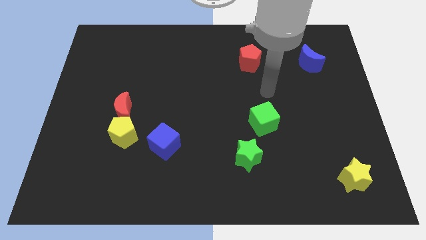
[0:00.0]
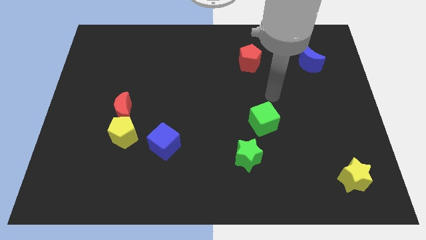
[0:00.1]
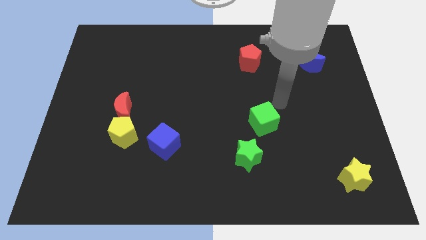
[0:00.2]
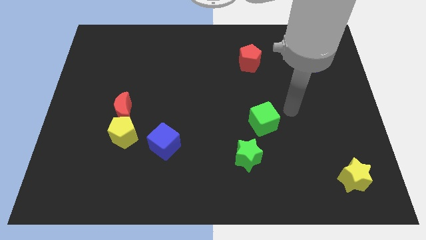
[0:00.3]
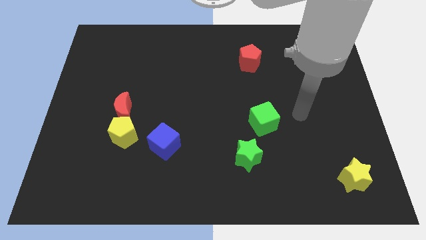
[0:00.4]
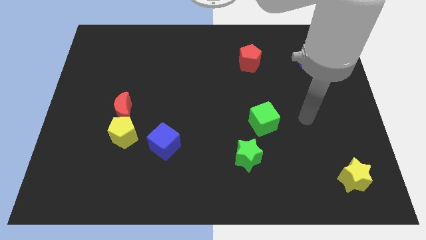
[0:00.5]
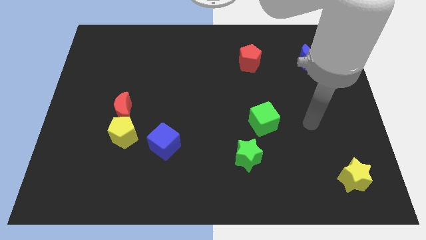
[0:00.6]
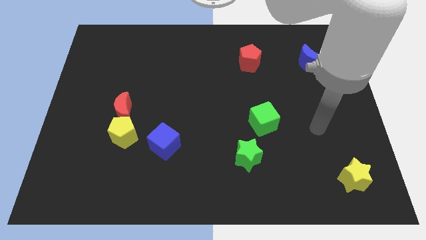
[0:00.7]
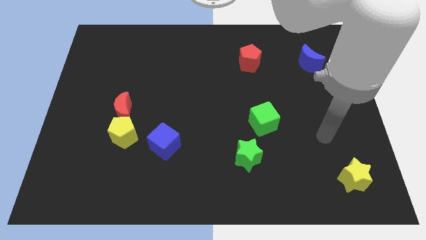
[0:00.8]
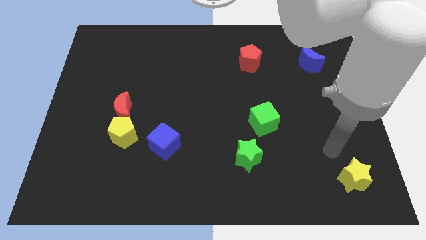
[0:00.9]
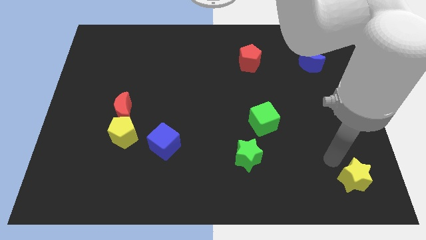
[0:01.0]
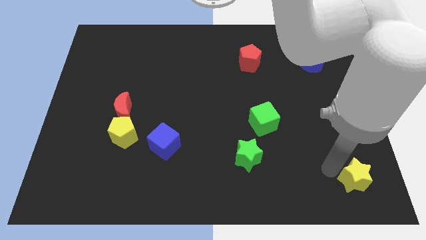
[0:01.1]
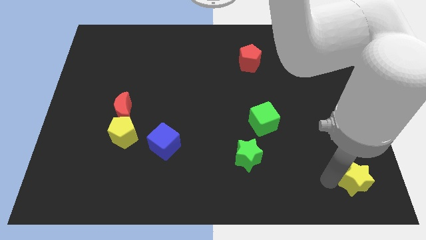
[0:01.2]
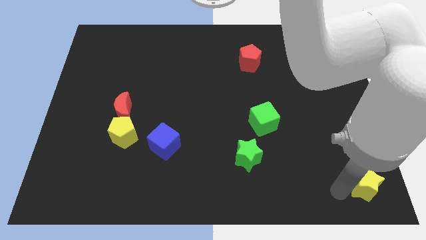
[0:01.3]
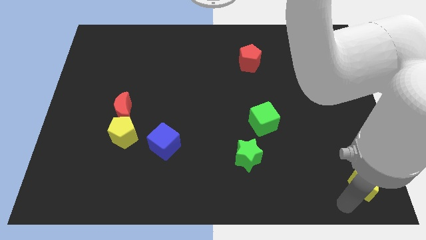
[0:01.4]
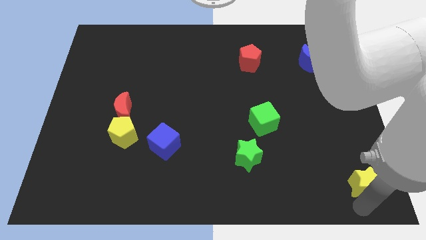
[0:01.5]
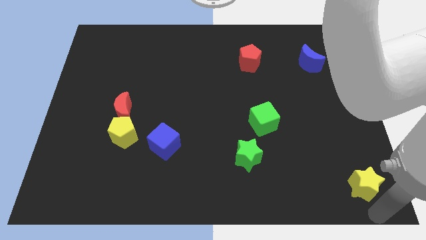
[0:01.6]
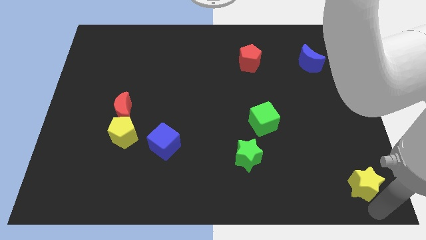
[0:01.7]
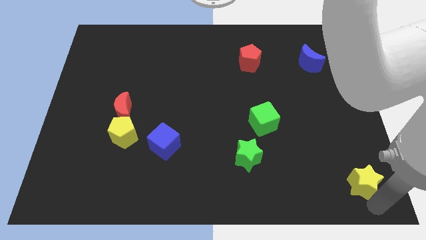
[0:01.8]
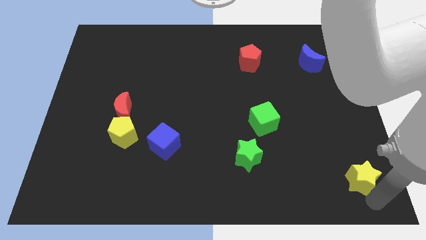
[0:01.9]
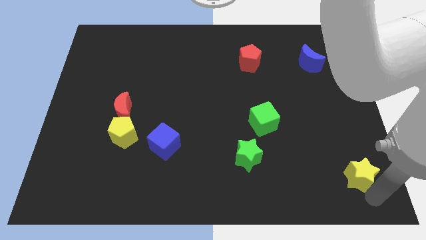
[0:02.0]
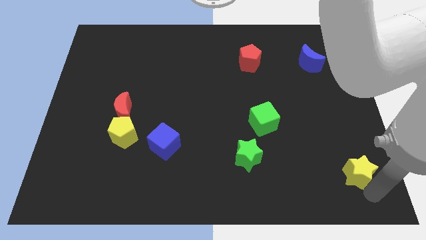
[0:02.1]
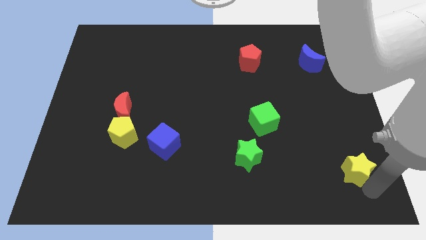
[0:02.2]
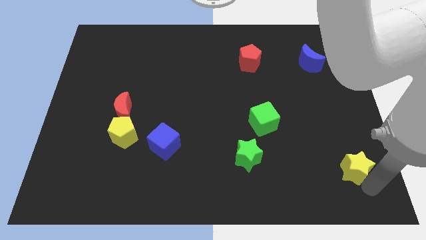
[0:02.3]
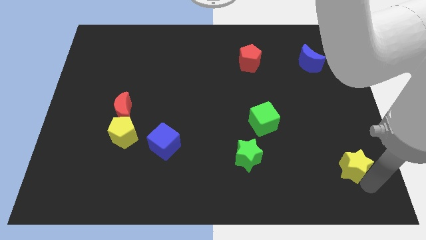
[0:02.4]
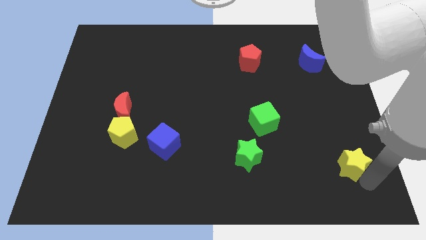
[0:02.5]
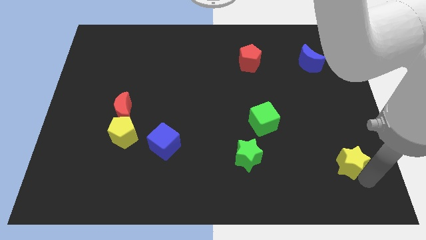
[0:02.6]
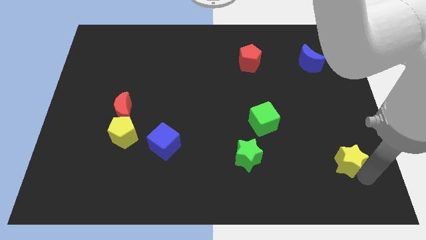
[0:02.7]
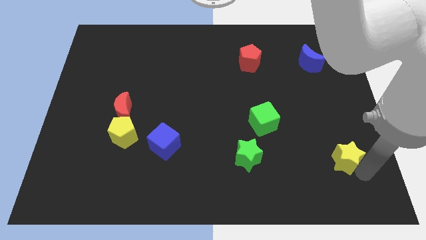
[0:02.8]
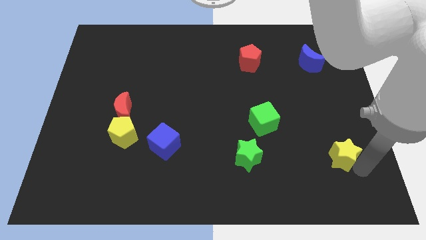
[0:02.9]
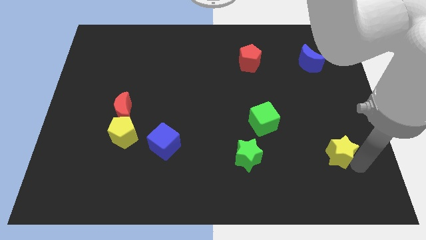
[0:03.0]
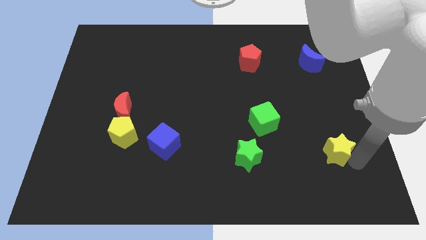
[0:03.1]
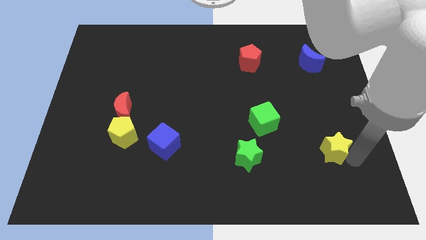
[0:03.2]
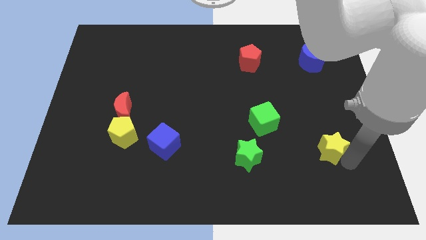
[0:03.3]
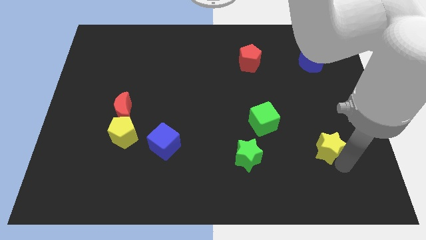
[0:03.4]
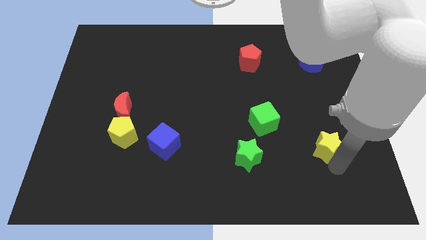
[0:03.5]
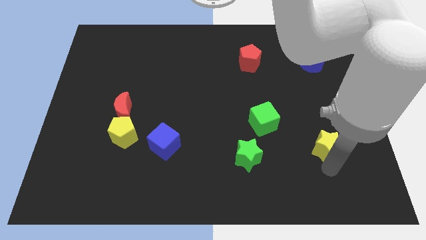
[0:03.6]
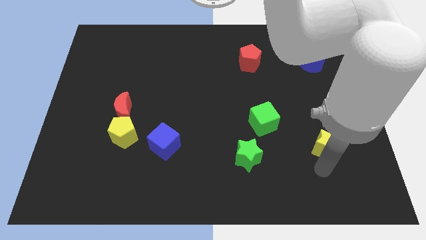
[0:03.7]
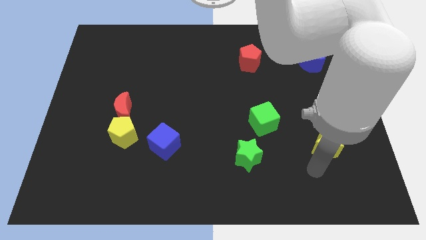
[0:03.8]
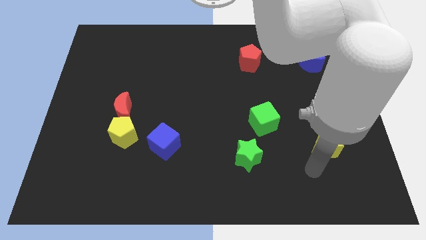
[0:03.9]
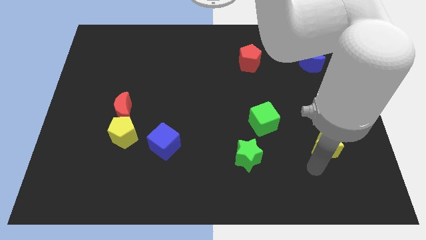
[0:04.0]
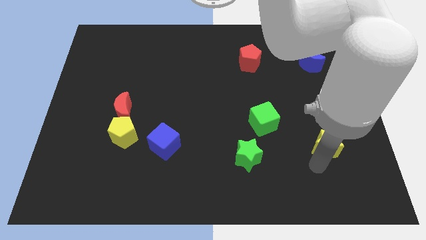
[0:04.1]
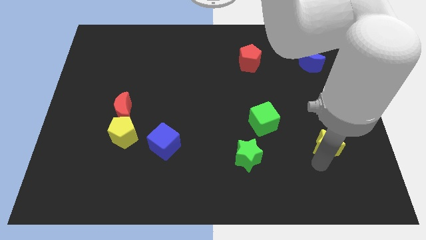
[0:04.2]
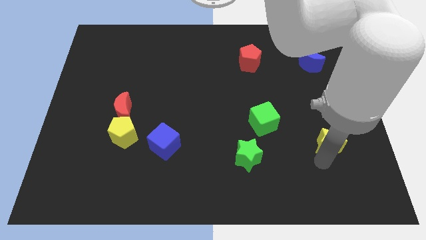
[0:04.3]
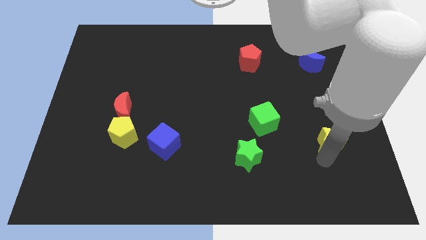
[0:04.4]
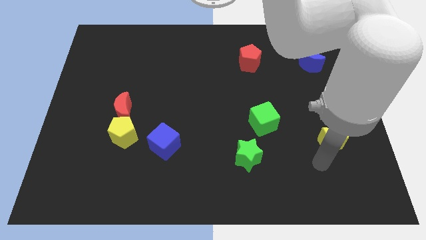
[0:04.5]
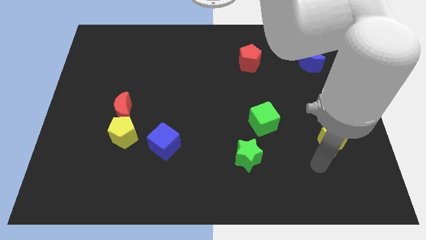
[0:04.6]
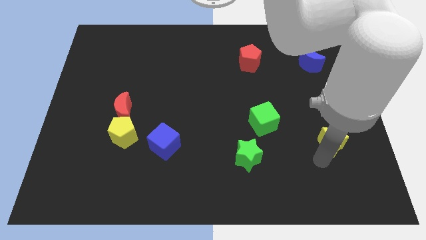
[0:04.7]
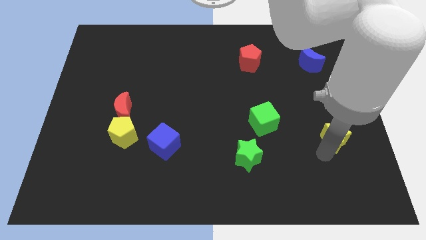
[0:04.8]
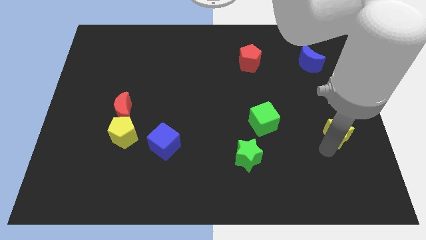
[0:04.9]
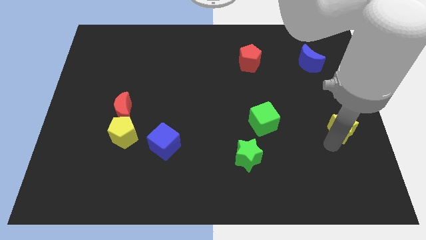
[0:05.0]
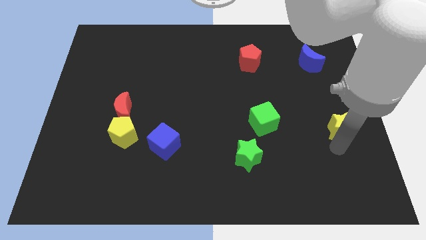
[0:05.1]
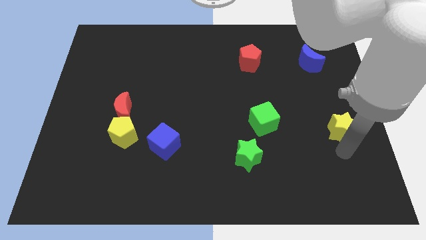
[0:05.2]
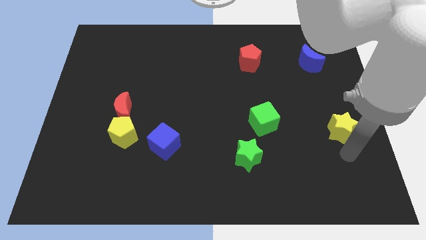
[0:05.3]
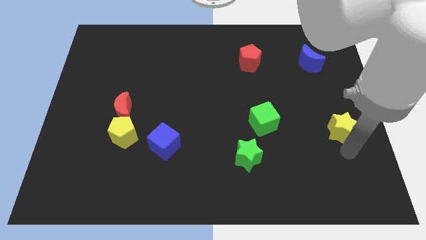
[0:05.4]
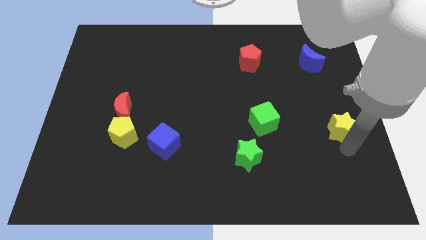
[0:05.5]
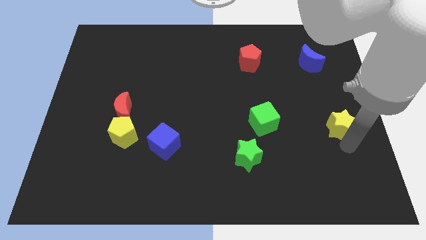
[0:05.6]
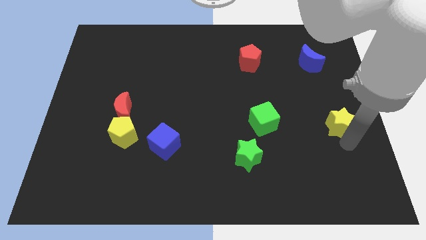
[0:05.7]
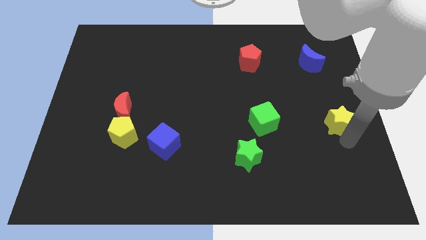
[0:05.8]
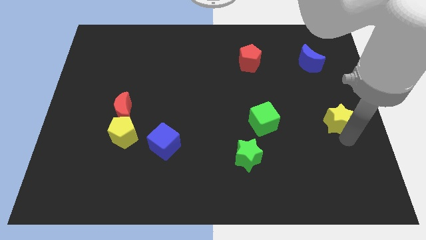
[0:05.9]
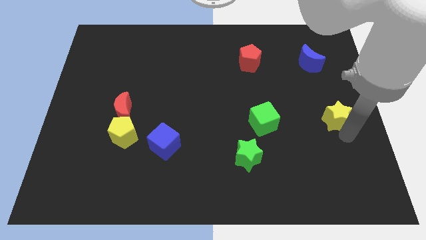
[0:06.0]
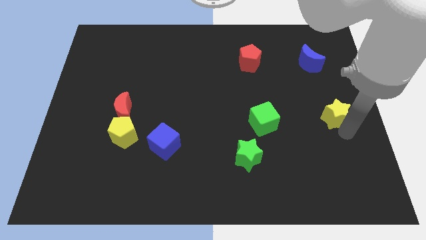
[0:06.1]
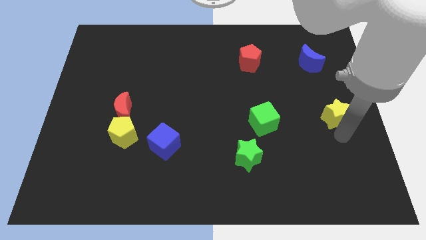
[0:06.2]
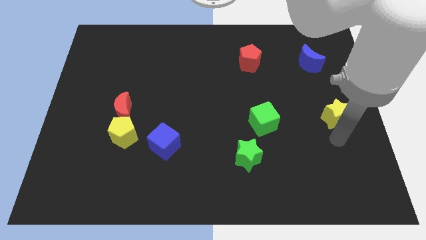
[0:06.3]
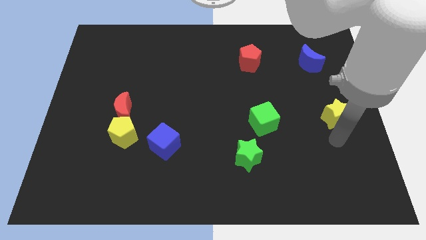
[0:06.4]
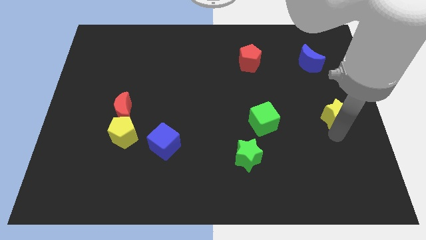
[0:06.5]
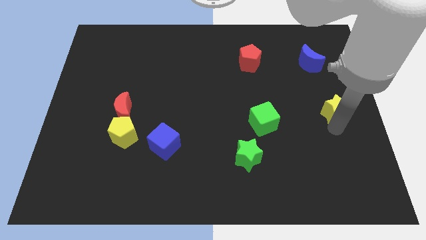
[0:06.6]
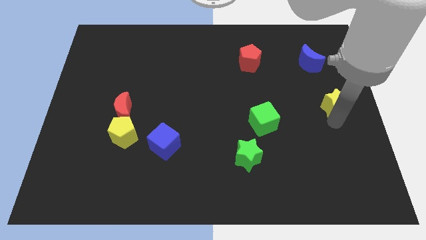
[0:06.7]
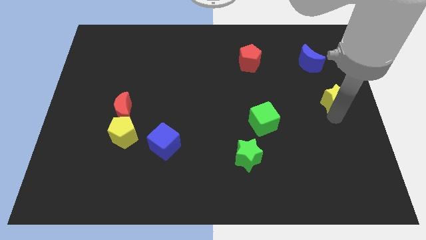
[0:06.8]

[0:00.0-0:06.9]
slide the yellow star upwards

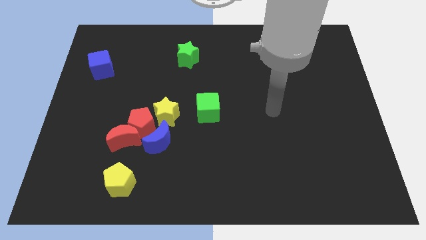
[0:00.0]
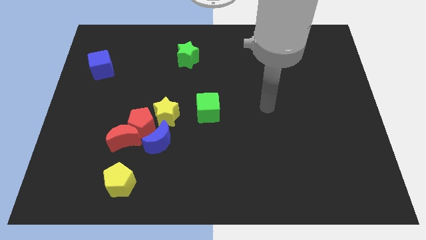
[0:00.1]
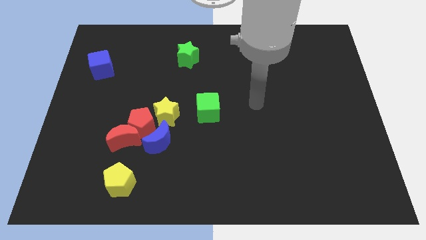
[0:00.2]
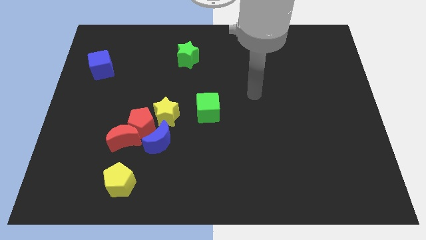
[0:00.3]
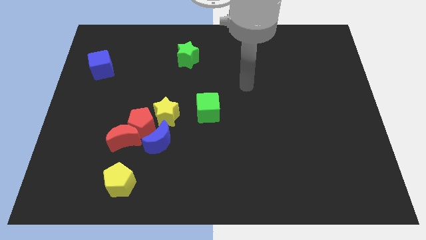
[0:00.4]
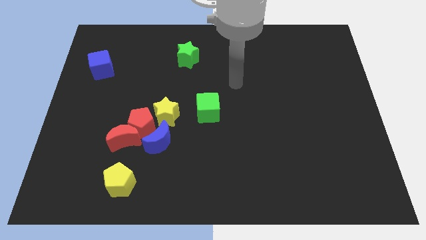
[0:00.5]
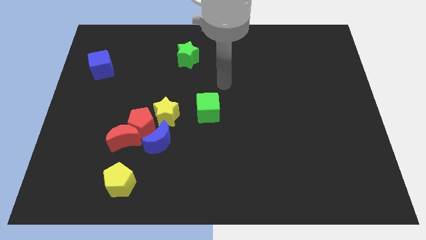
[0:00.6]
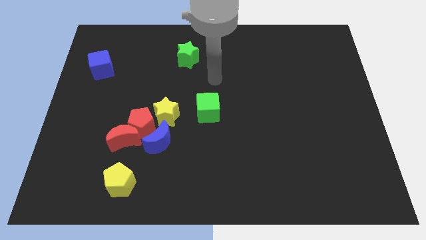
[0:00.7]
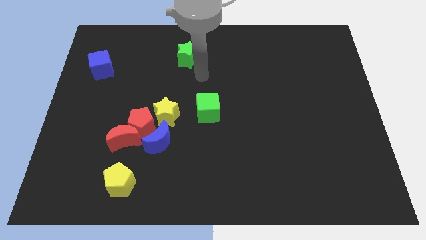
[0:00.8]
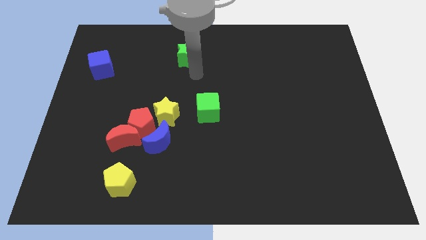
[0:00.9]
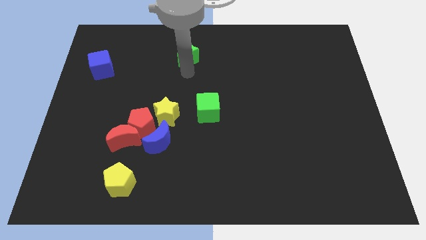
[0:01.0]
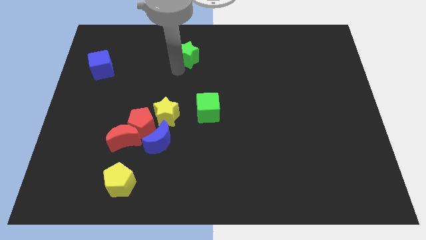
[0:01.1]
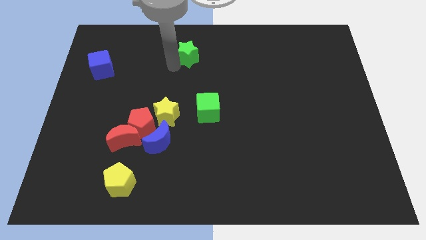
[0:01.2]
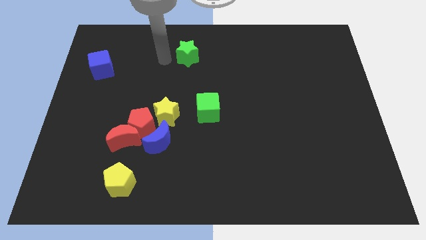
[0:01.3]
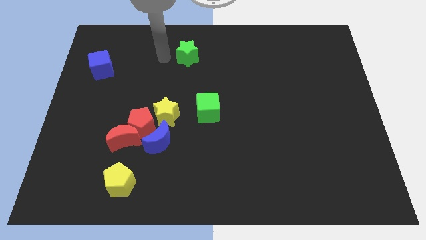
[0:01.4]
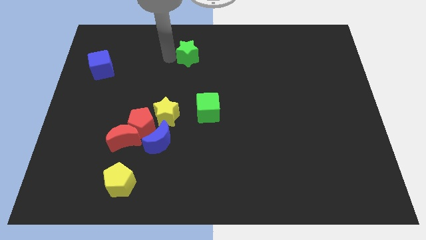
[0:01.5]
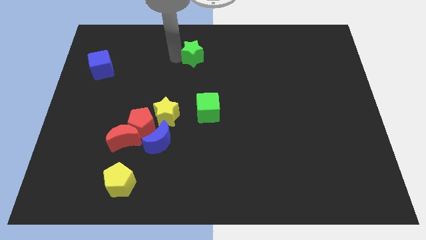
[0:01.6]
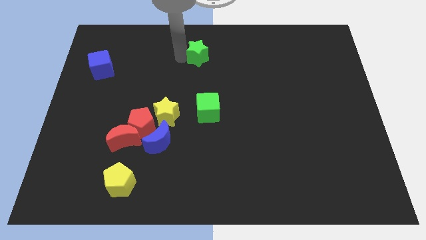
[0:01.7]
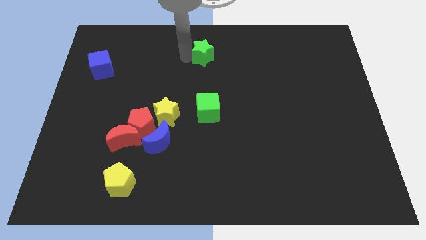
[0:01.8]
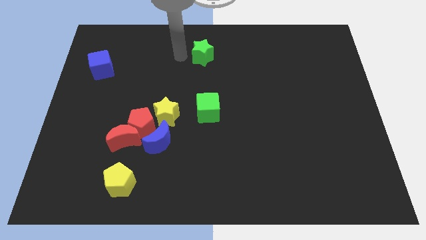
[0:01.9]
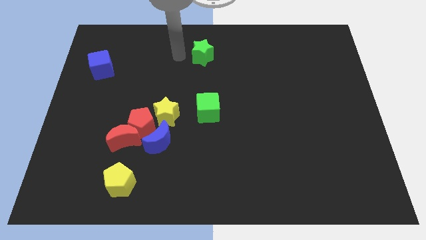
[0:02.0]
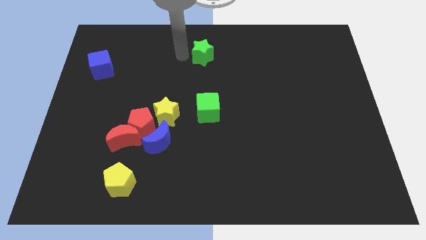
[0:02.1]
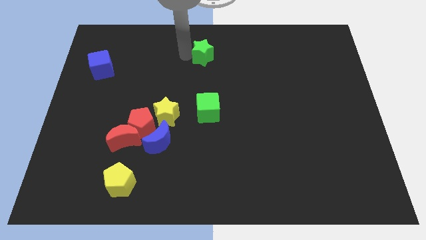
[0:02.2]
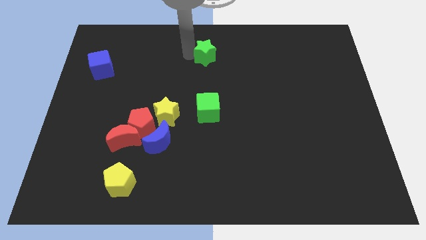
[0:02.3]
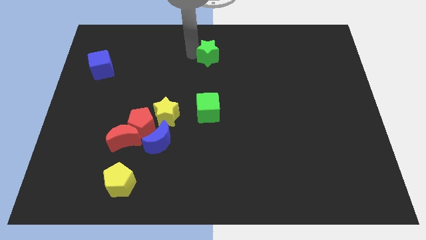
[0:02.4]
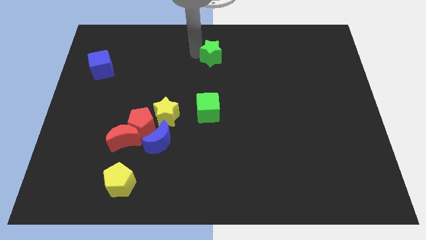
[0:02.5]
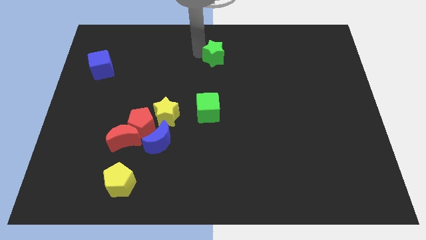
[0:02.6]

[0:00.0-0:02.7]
push the green star a bit right
